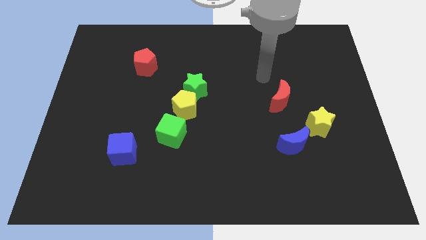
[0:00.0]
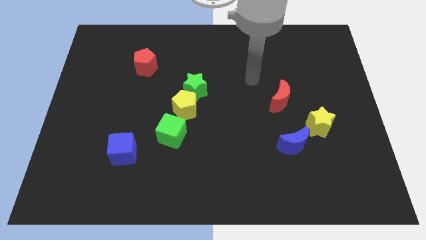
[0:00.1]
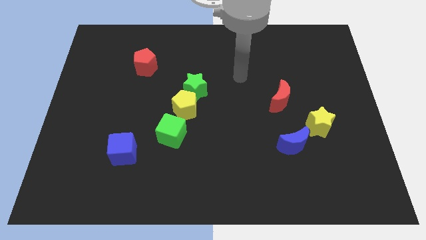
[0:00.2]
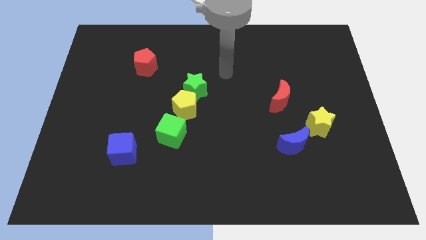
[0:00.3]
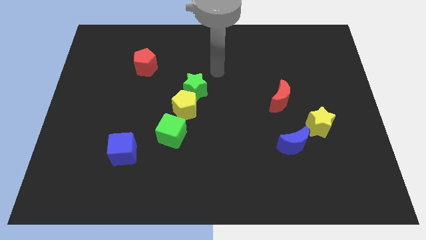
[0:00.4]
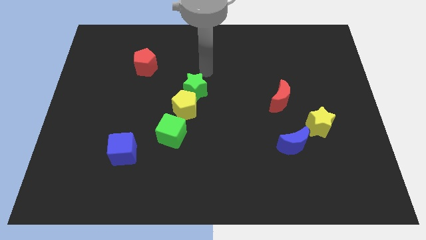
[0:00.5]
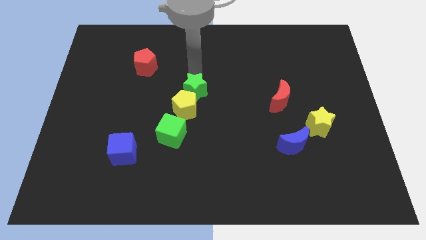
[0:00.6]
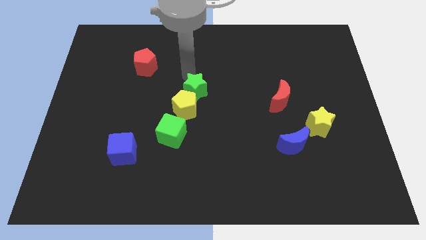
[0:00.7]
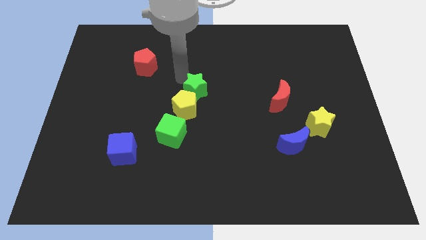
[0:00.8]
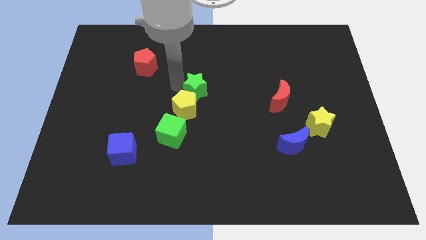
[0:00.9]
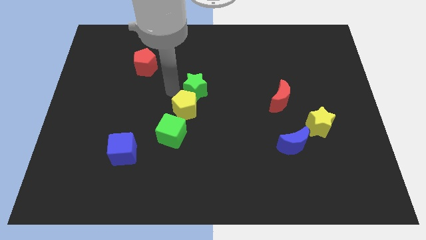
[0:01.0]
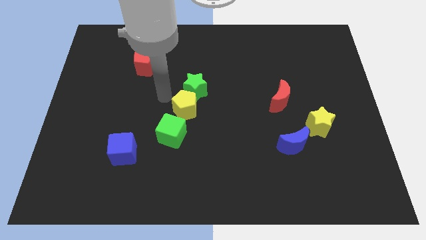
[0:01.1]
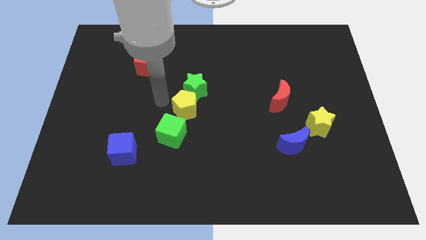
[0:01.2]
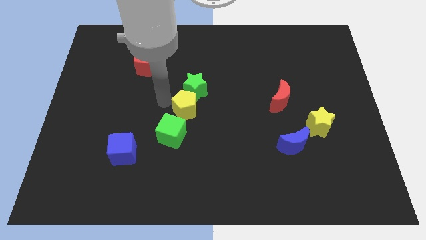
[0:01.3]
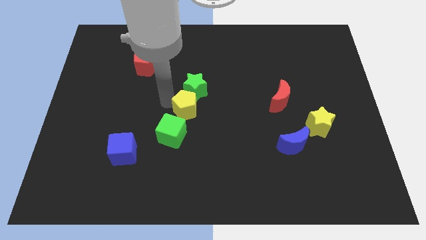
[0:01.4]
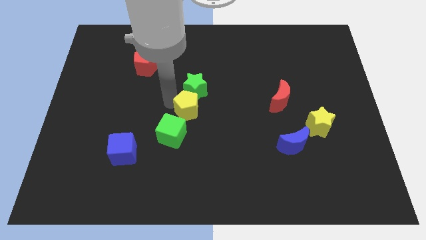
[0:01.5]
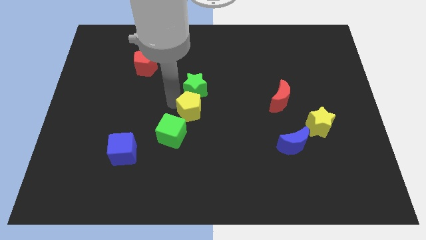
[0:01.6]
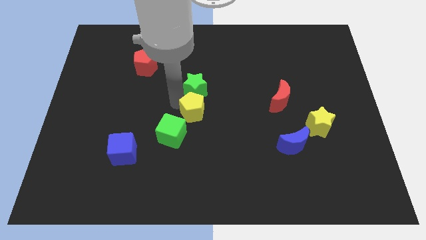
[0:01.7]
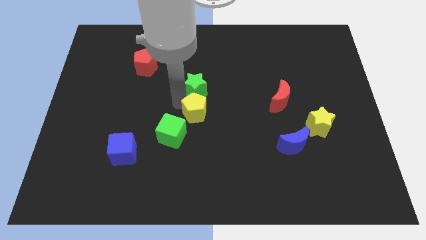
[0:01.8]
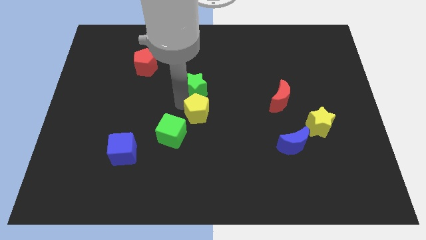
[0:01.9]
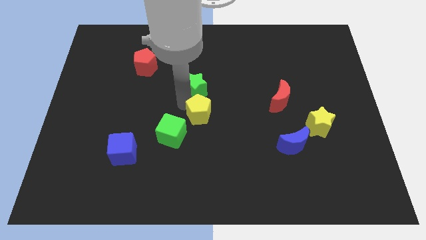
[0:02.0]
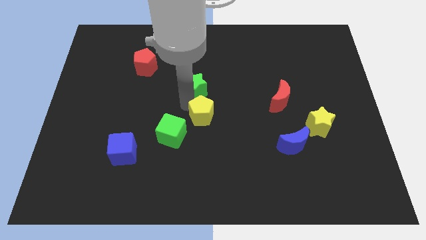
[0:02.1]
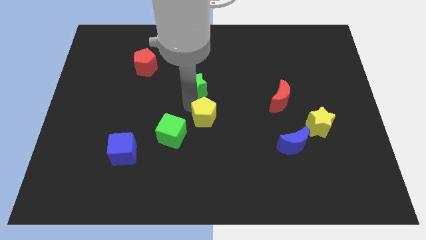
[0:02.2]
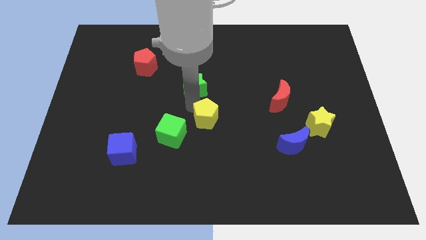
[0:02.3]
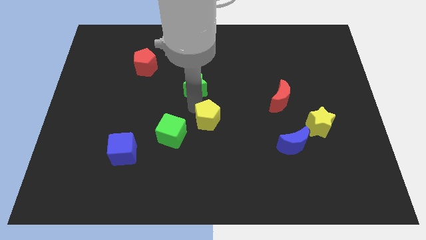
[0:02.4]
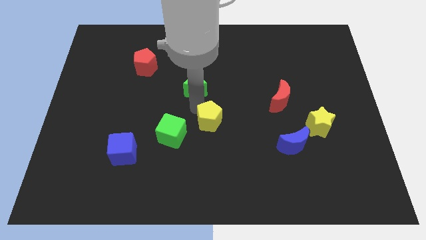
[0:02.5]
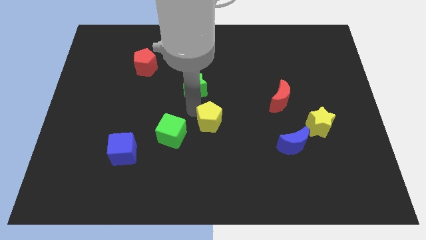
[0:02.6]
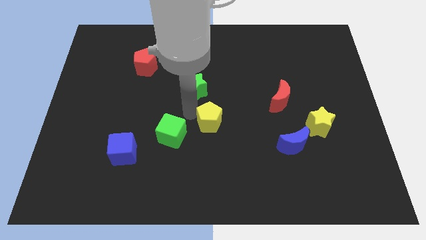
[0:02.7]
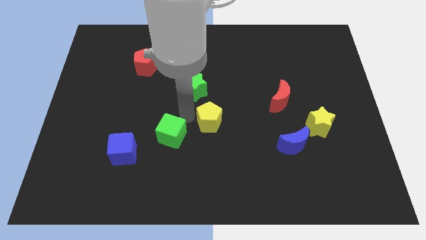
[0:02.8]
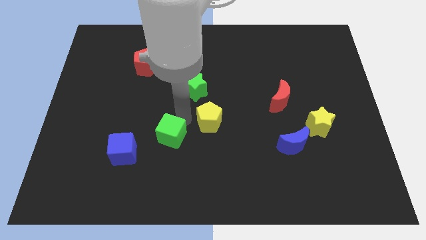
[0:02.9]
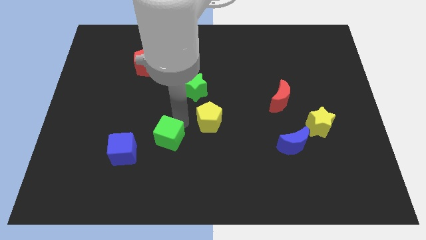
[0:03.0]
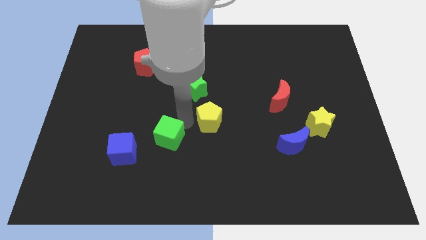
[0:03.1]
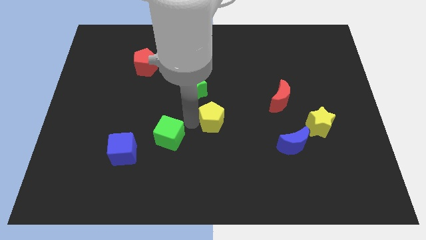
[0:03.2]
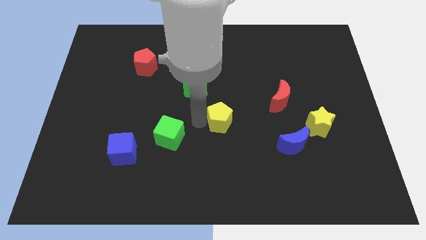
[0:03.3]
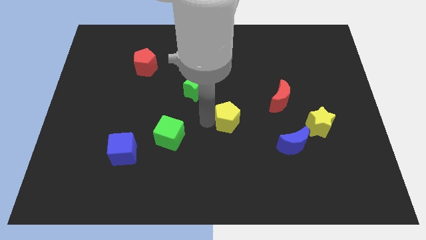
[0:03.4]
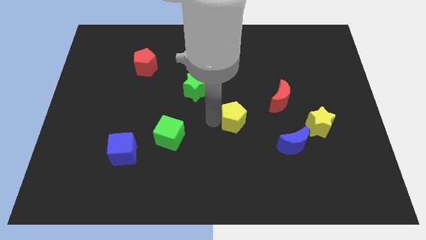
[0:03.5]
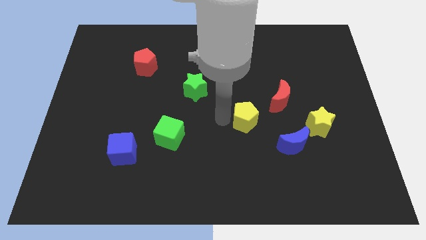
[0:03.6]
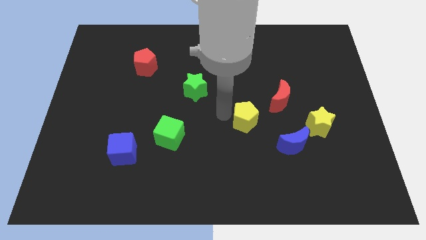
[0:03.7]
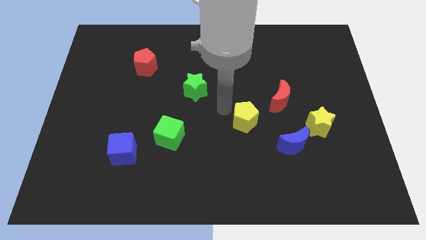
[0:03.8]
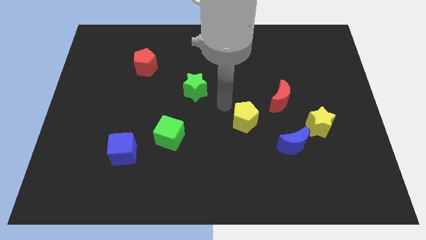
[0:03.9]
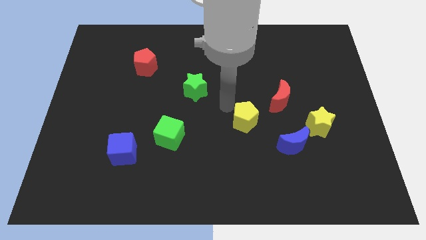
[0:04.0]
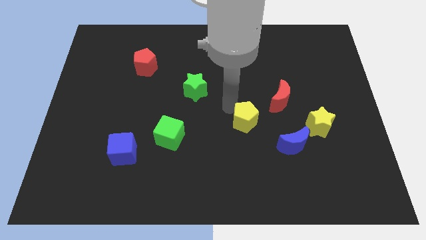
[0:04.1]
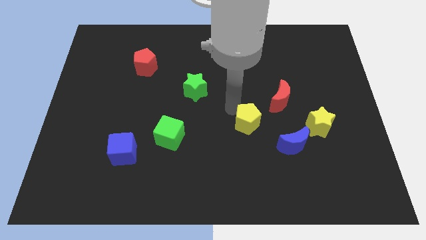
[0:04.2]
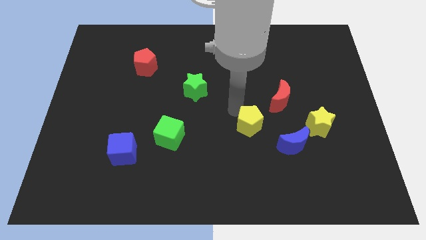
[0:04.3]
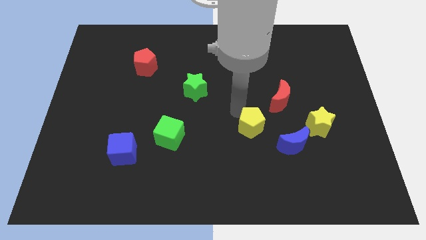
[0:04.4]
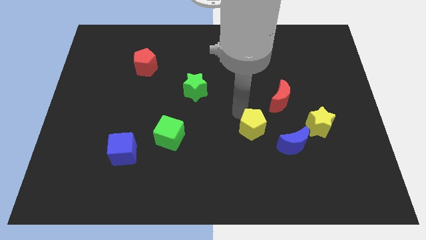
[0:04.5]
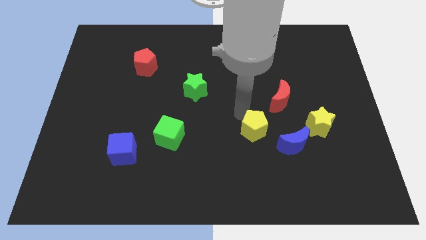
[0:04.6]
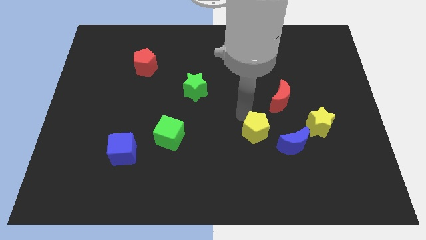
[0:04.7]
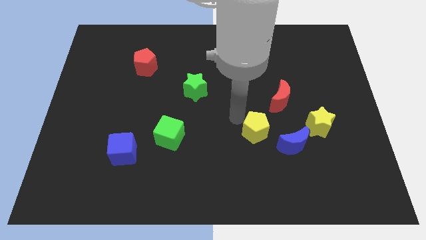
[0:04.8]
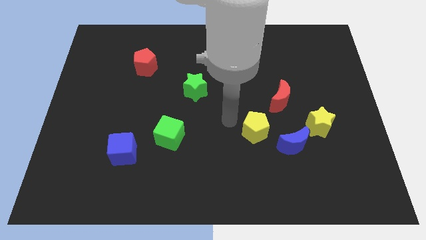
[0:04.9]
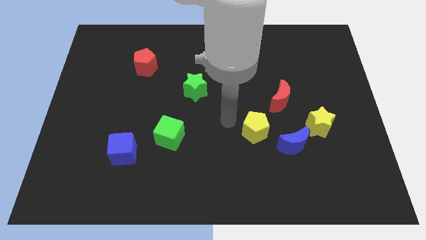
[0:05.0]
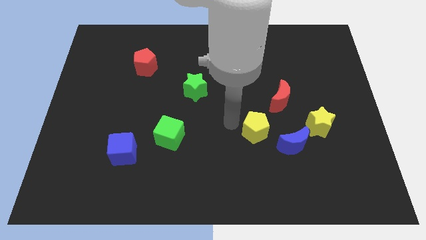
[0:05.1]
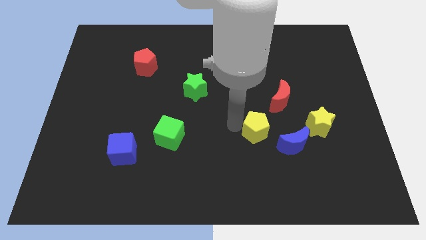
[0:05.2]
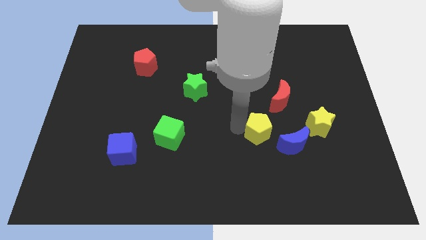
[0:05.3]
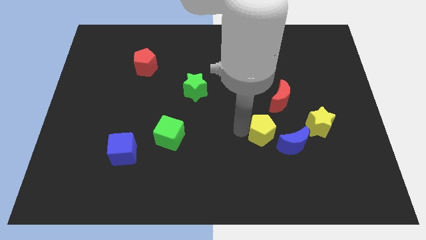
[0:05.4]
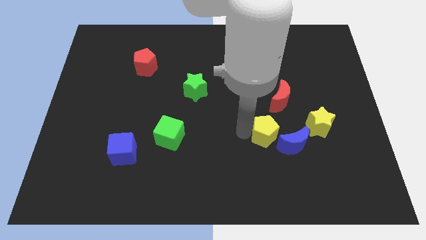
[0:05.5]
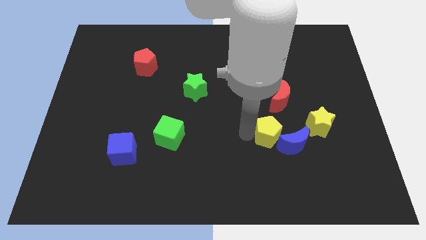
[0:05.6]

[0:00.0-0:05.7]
put the yellow pentagon to the blue moon

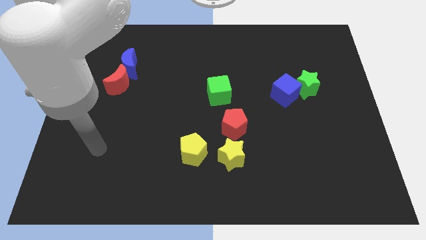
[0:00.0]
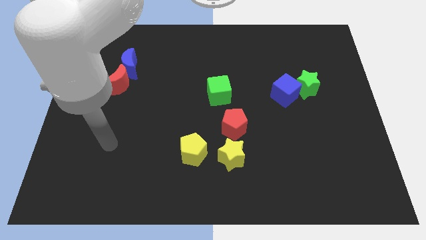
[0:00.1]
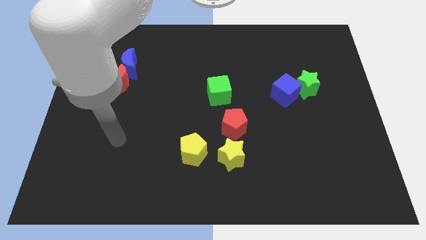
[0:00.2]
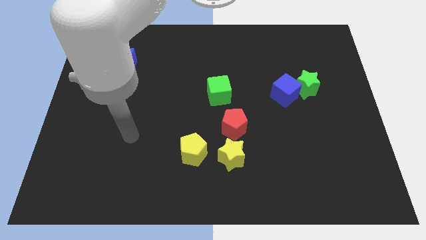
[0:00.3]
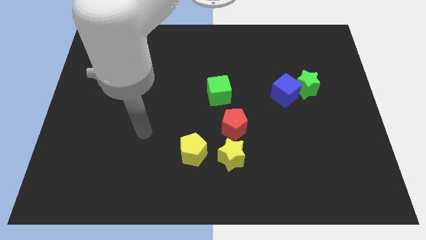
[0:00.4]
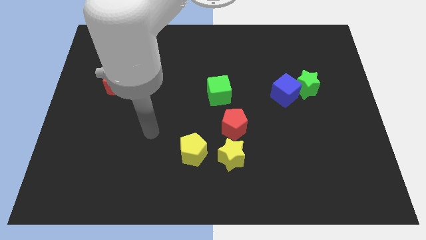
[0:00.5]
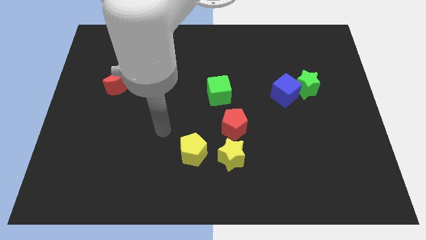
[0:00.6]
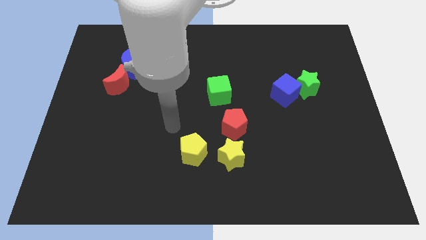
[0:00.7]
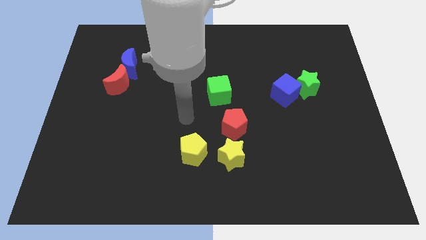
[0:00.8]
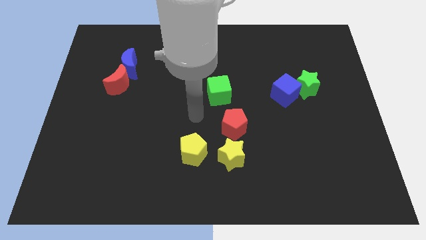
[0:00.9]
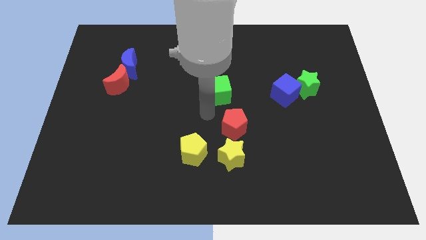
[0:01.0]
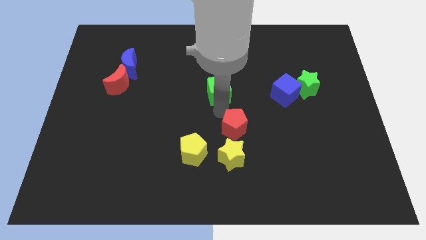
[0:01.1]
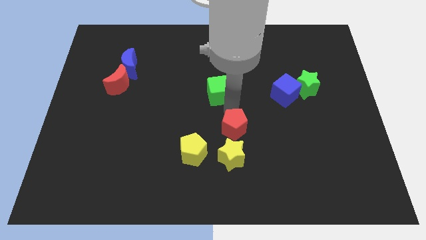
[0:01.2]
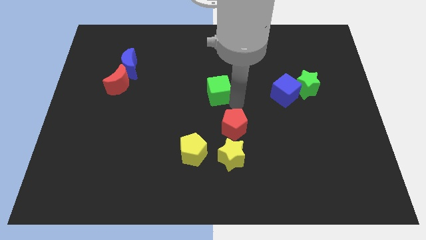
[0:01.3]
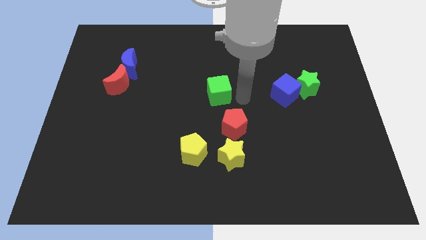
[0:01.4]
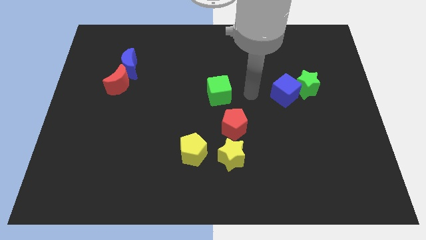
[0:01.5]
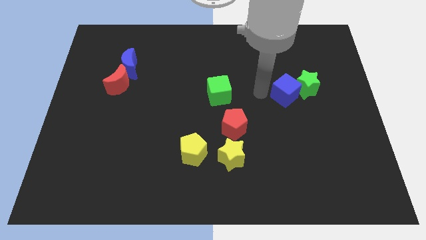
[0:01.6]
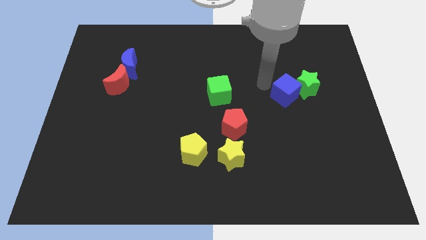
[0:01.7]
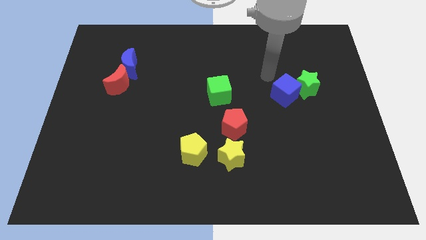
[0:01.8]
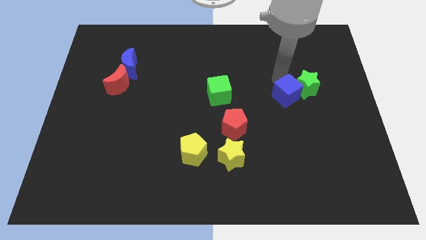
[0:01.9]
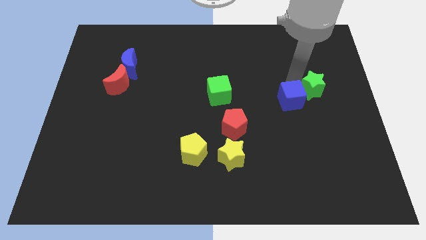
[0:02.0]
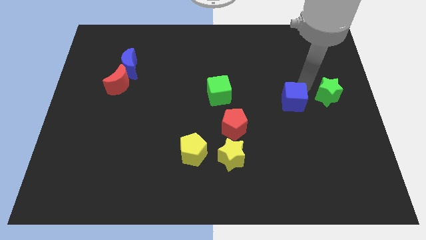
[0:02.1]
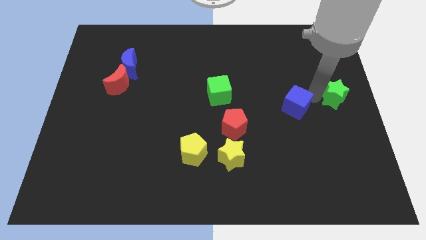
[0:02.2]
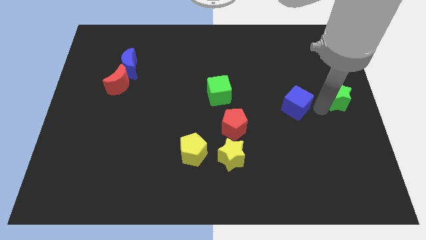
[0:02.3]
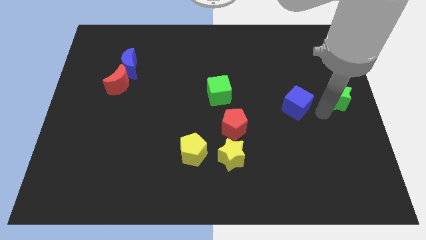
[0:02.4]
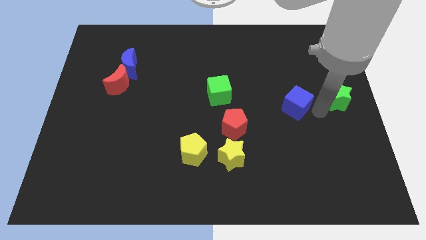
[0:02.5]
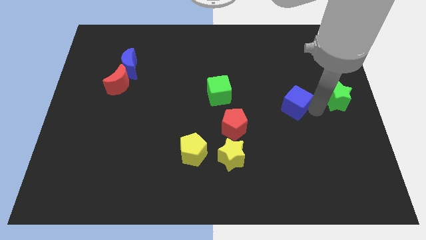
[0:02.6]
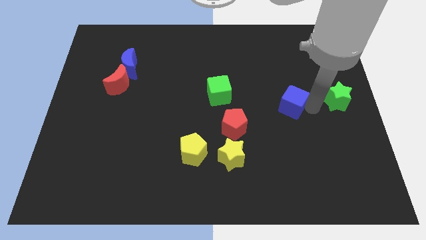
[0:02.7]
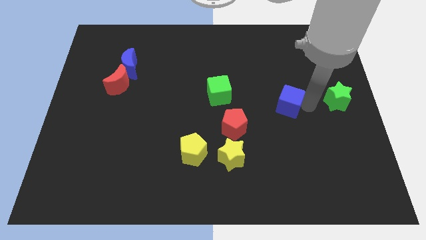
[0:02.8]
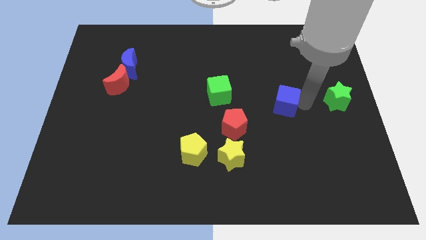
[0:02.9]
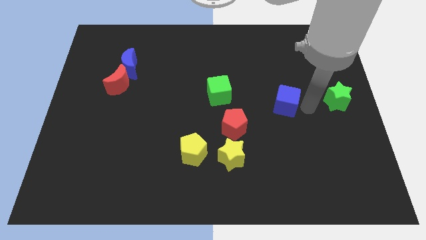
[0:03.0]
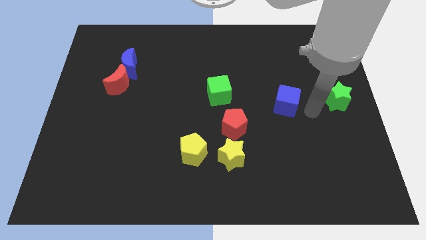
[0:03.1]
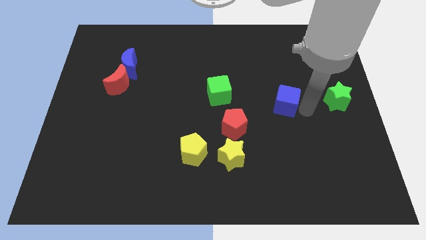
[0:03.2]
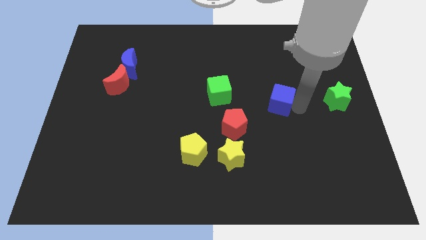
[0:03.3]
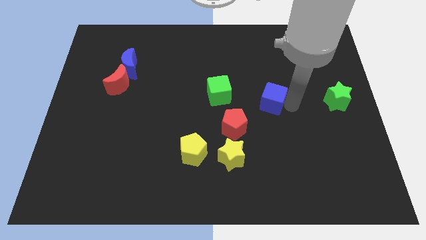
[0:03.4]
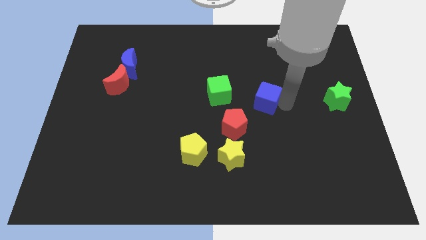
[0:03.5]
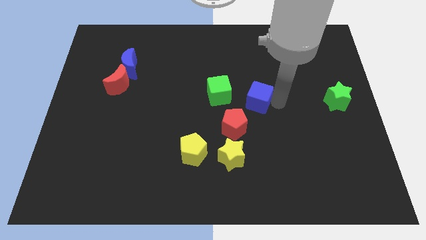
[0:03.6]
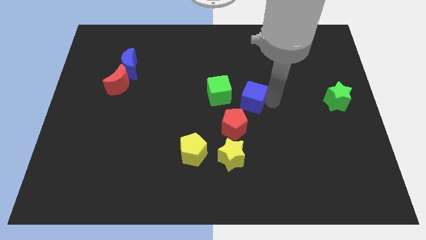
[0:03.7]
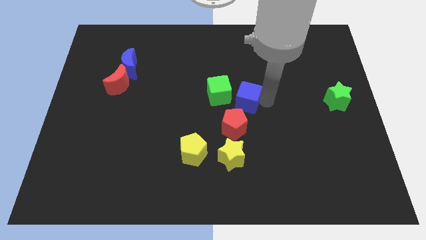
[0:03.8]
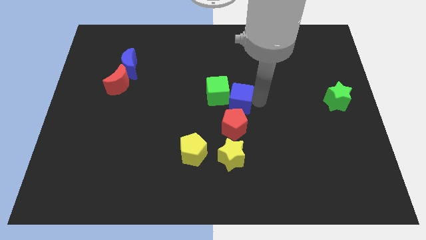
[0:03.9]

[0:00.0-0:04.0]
put the blue cube towards the green cube
